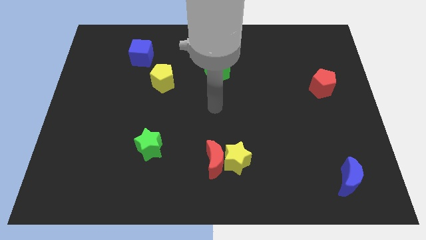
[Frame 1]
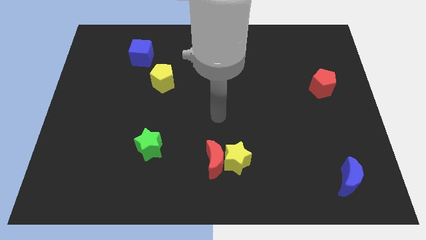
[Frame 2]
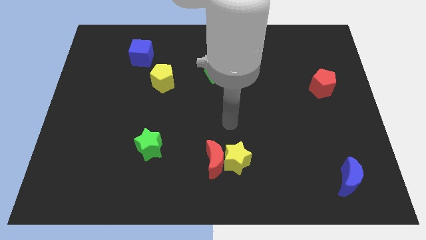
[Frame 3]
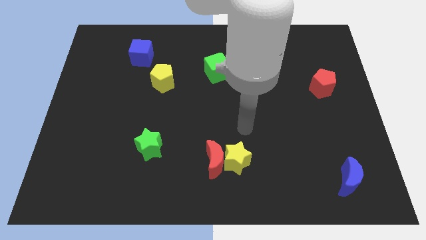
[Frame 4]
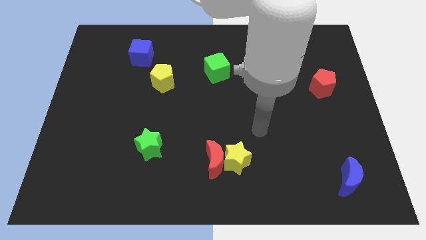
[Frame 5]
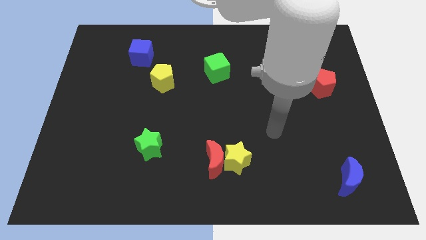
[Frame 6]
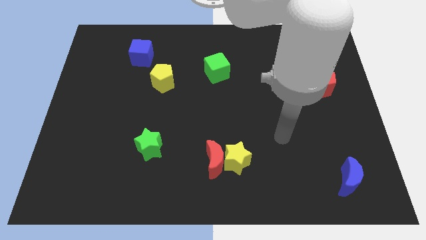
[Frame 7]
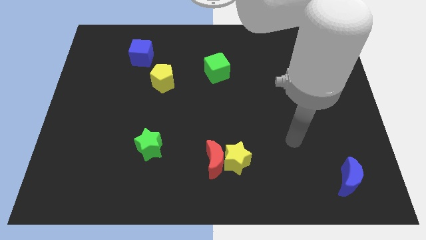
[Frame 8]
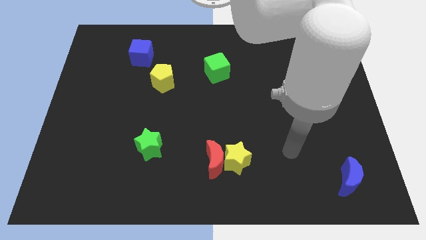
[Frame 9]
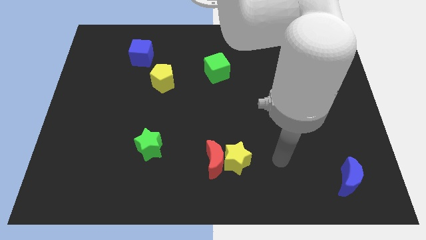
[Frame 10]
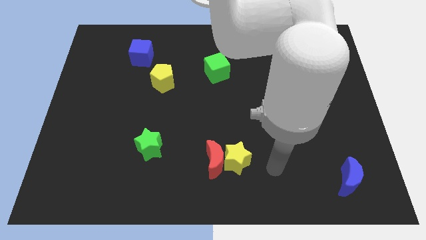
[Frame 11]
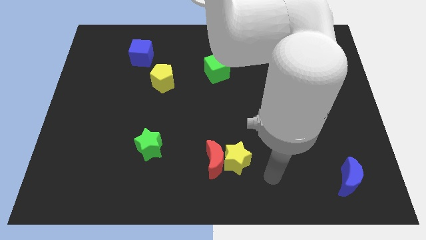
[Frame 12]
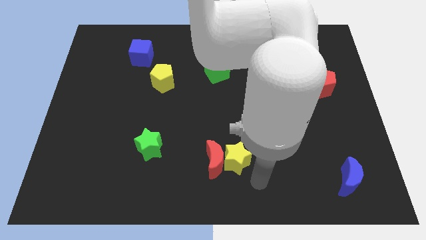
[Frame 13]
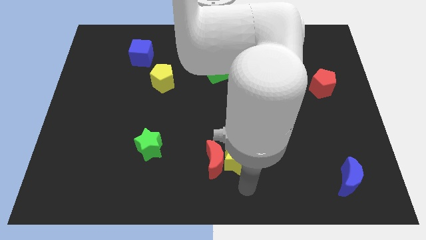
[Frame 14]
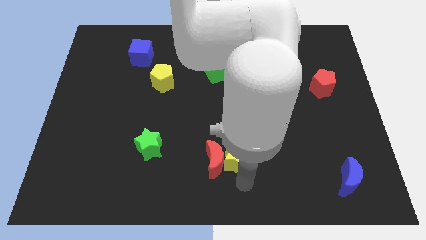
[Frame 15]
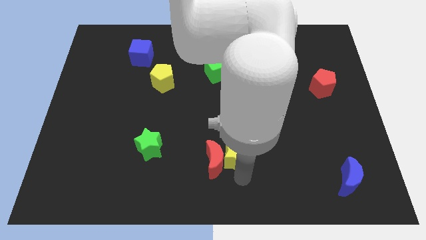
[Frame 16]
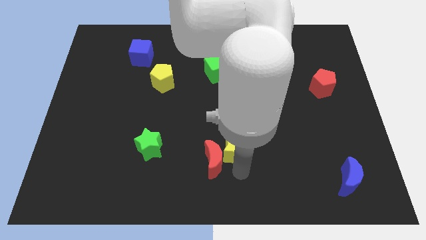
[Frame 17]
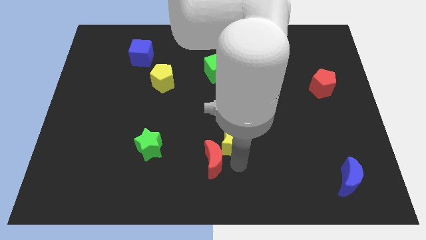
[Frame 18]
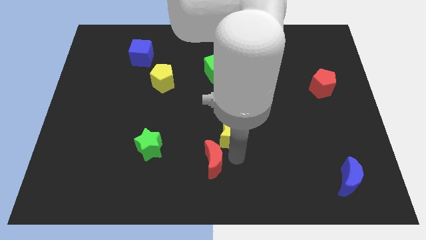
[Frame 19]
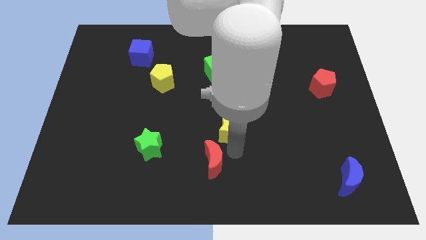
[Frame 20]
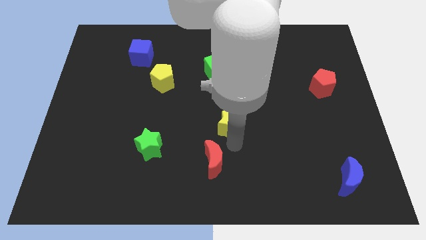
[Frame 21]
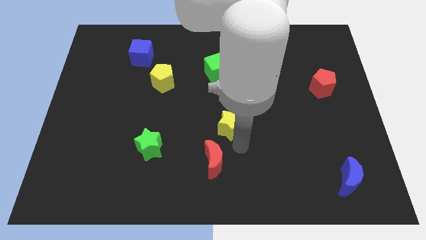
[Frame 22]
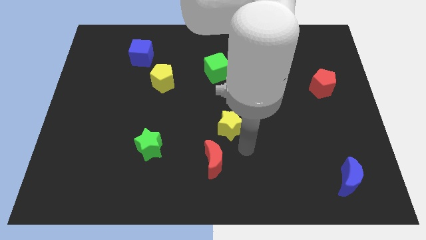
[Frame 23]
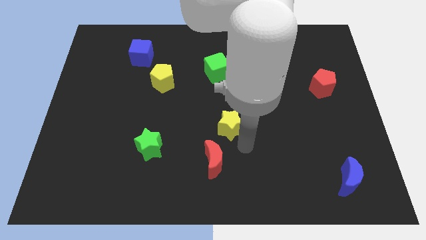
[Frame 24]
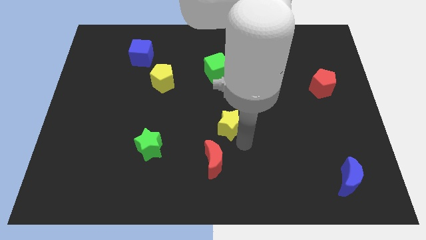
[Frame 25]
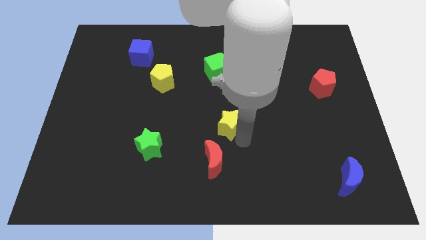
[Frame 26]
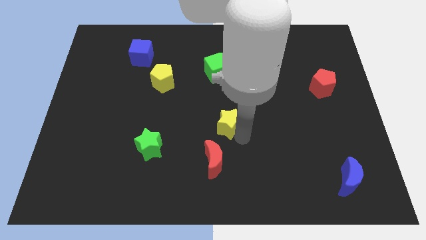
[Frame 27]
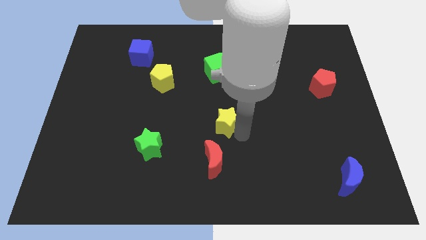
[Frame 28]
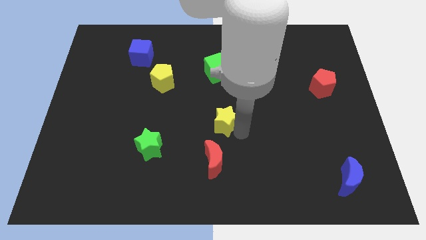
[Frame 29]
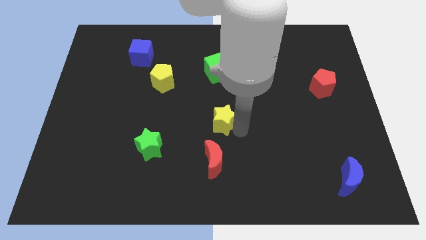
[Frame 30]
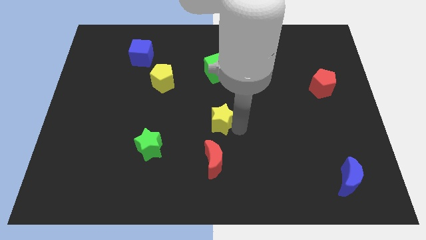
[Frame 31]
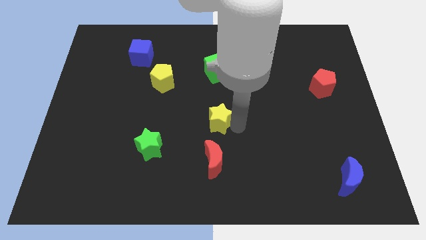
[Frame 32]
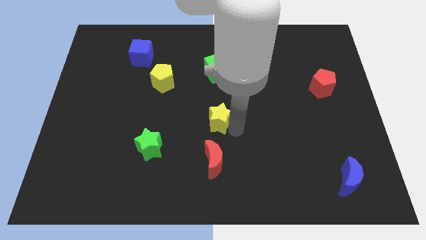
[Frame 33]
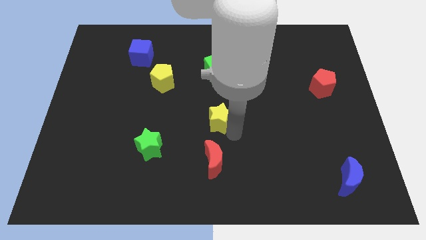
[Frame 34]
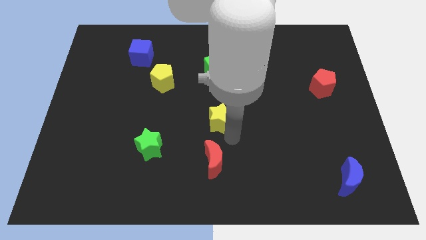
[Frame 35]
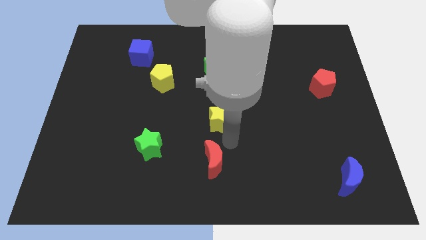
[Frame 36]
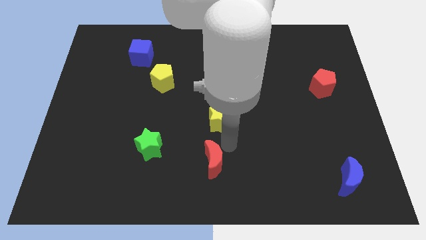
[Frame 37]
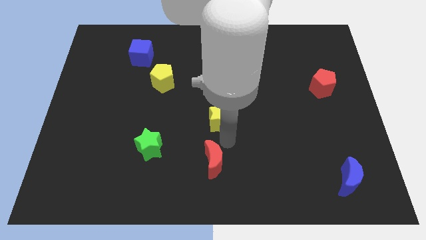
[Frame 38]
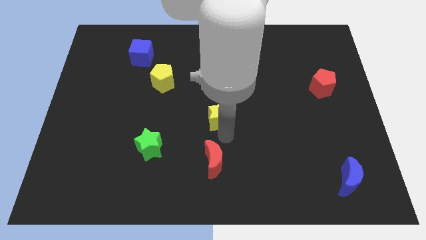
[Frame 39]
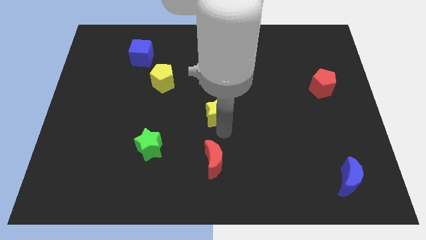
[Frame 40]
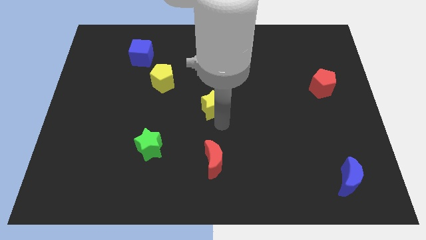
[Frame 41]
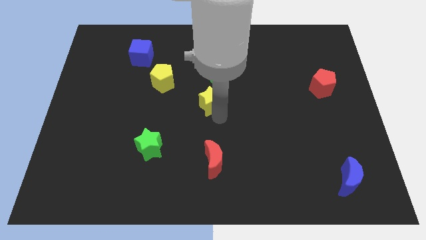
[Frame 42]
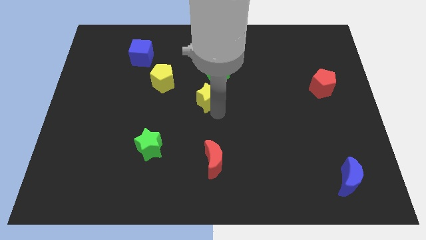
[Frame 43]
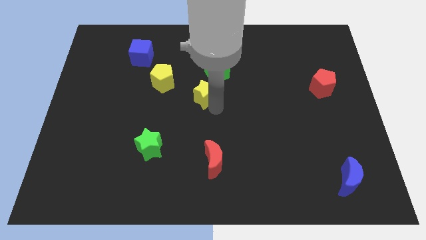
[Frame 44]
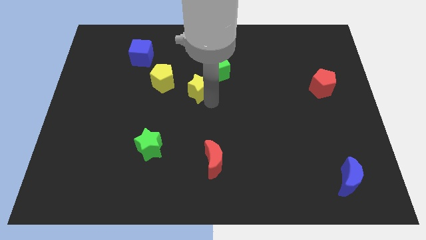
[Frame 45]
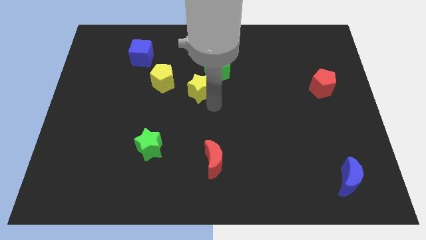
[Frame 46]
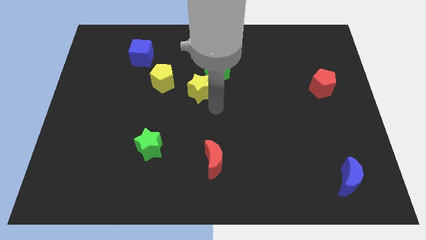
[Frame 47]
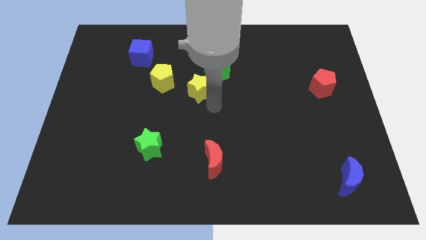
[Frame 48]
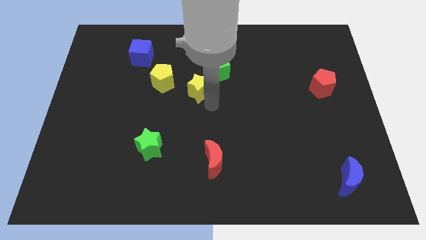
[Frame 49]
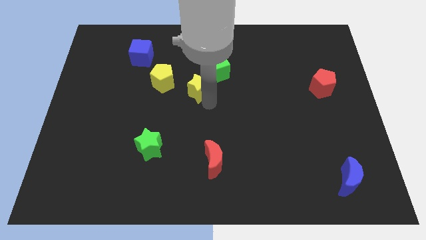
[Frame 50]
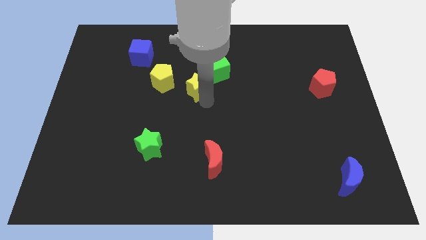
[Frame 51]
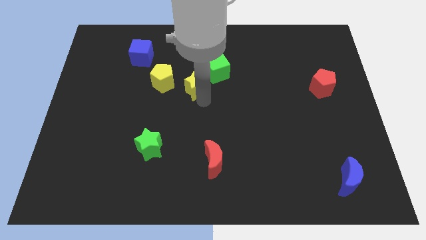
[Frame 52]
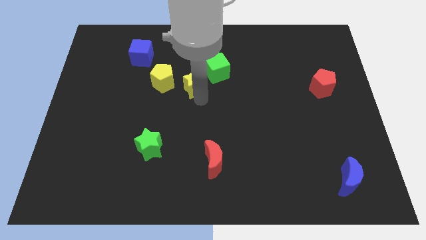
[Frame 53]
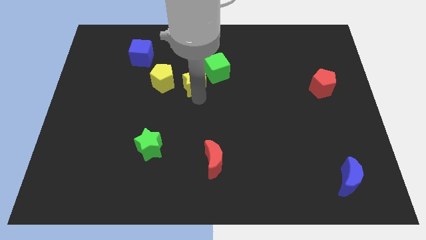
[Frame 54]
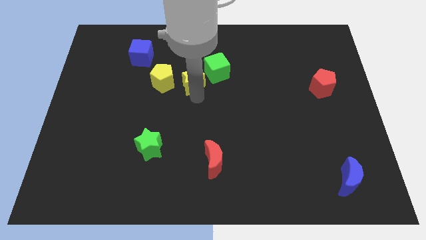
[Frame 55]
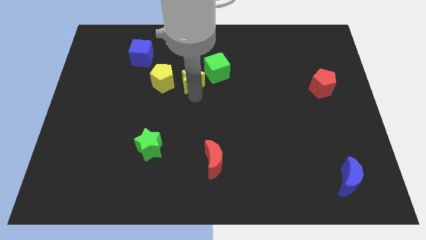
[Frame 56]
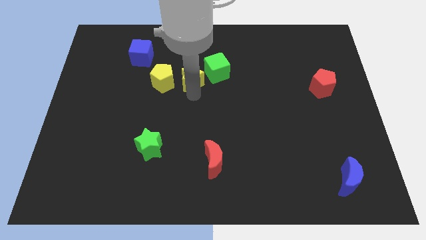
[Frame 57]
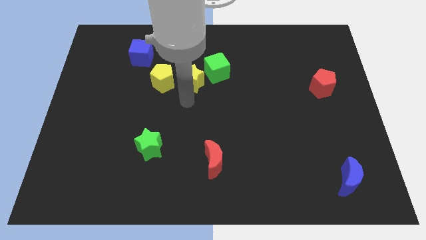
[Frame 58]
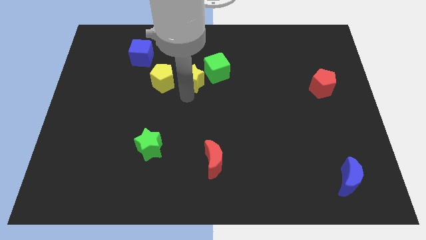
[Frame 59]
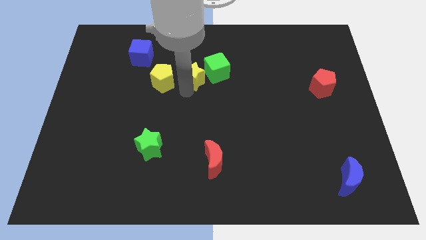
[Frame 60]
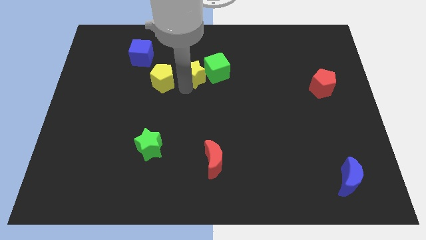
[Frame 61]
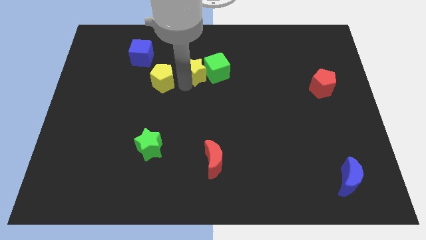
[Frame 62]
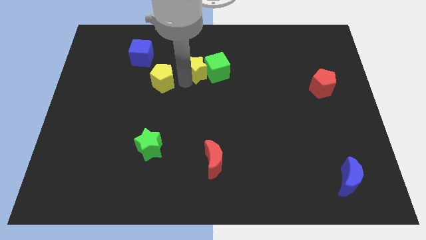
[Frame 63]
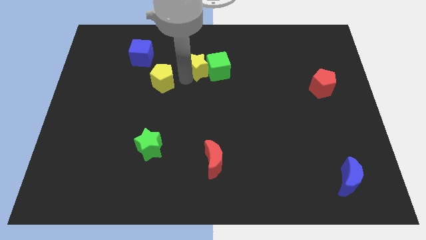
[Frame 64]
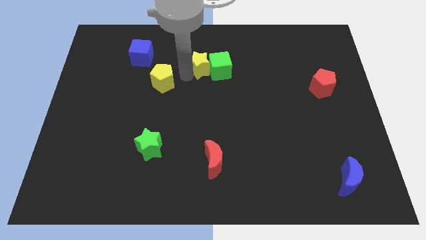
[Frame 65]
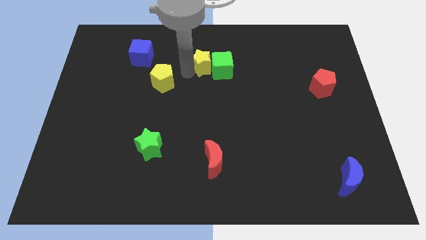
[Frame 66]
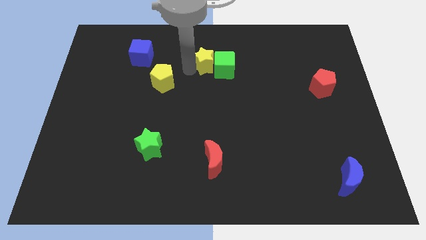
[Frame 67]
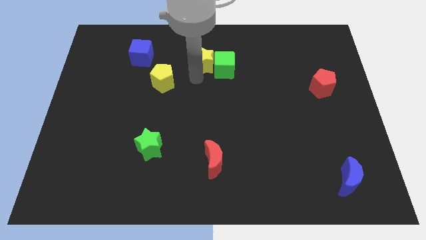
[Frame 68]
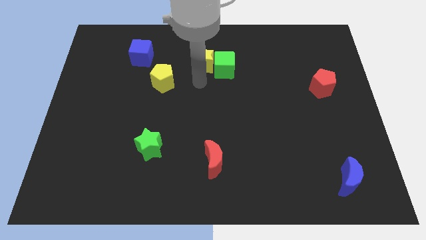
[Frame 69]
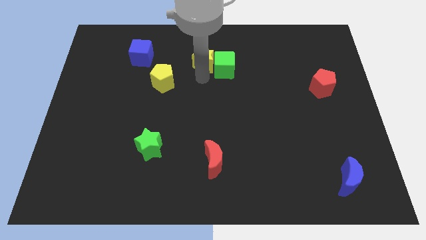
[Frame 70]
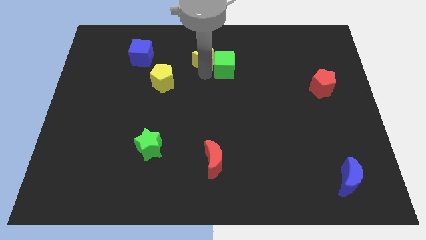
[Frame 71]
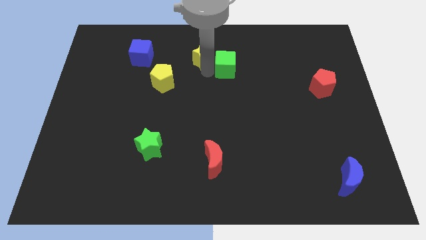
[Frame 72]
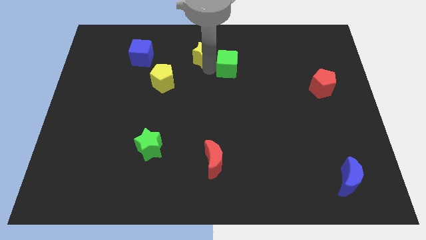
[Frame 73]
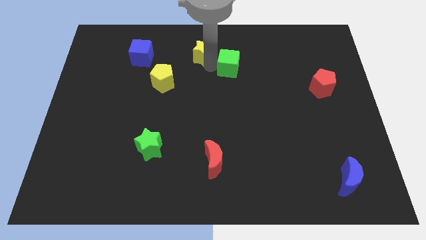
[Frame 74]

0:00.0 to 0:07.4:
put the yellow star to the top

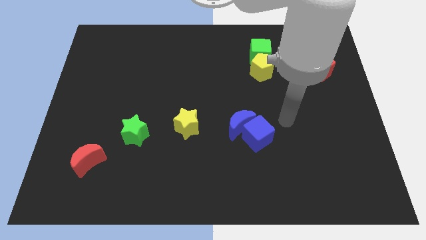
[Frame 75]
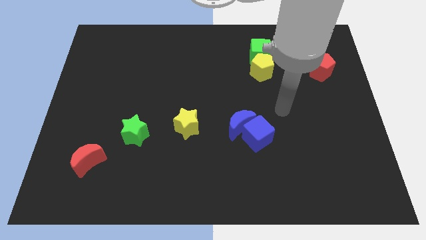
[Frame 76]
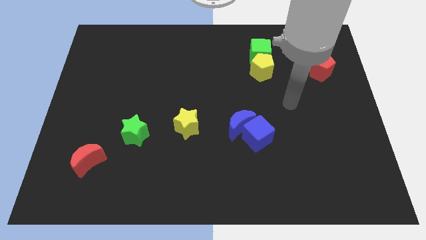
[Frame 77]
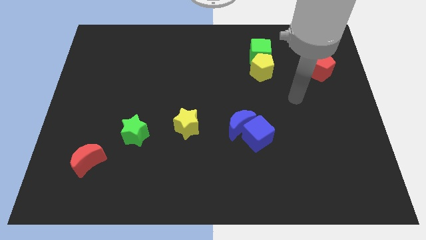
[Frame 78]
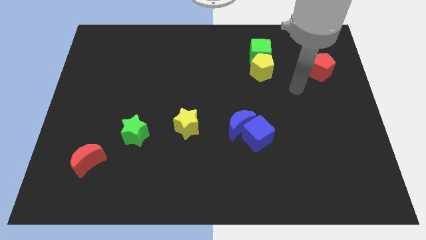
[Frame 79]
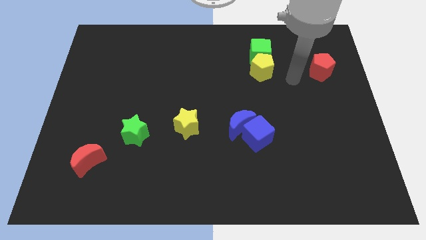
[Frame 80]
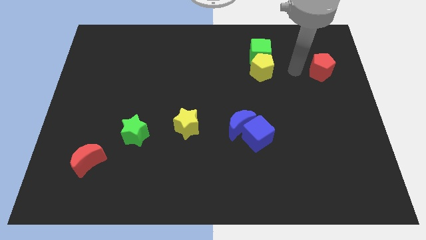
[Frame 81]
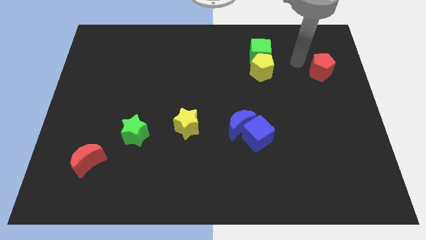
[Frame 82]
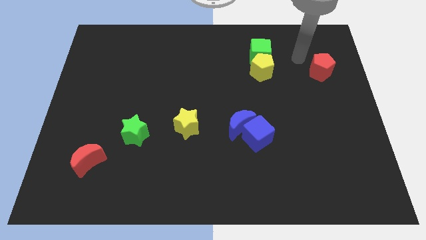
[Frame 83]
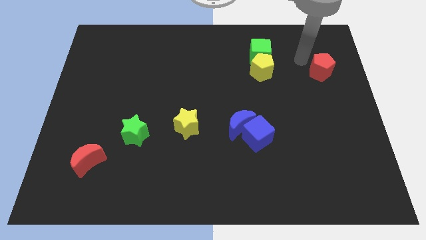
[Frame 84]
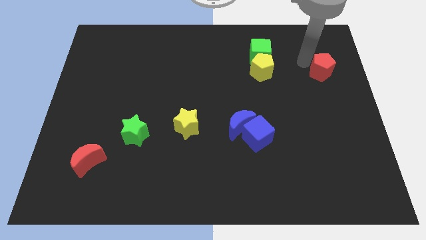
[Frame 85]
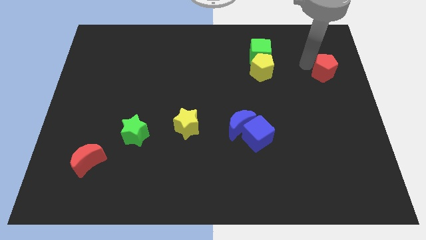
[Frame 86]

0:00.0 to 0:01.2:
slide the red pentagon to the right side of the board
